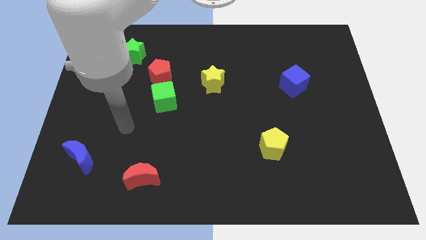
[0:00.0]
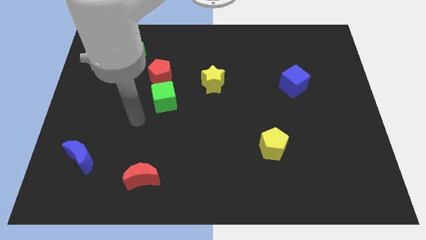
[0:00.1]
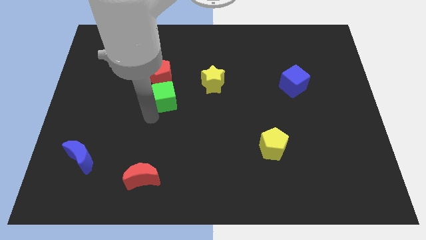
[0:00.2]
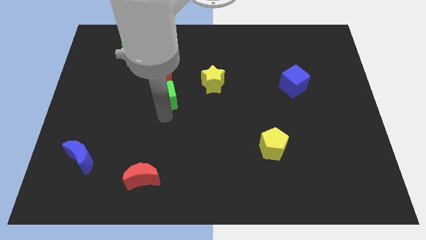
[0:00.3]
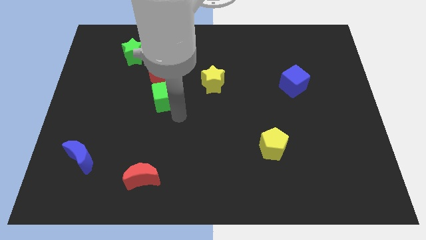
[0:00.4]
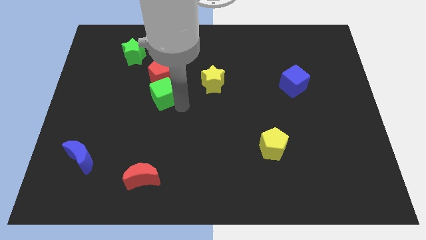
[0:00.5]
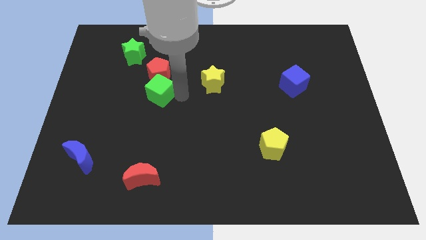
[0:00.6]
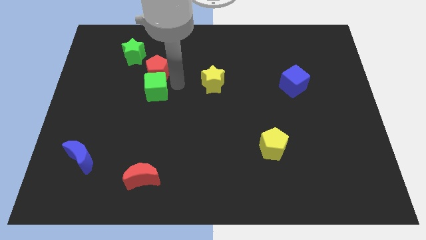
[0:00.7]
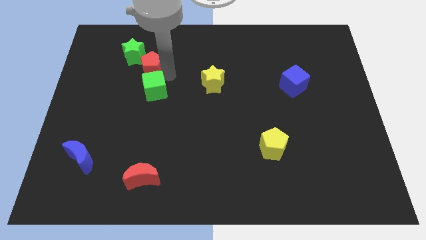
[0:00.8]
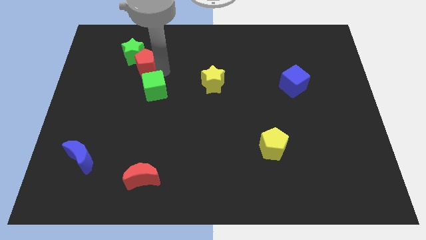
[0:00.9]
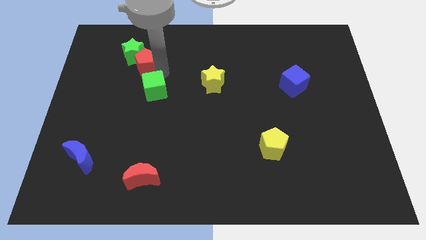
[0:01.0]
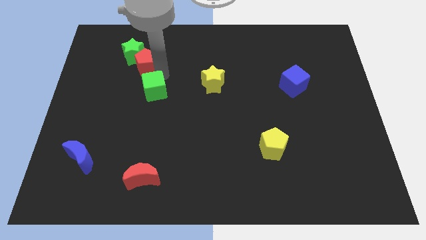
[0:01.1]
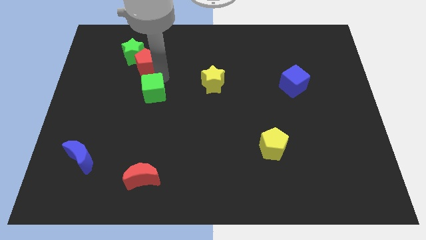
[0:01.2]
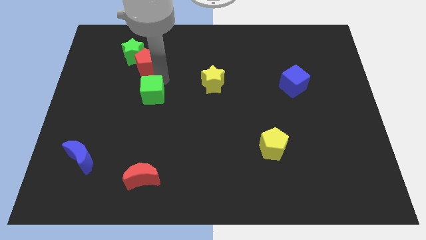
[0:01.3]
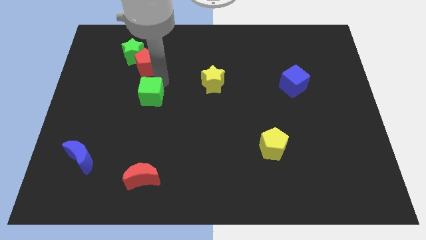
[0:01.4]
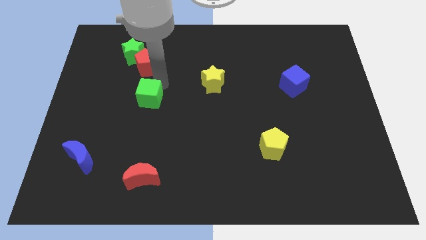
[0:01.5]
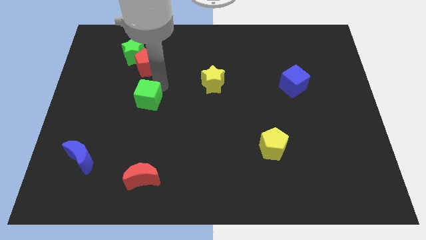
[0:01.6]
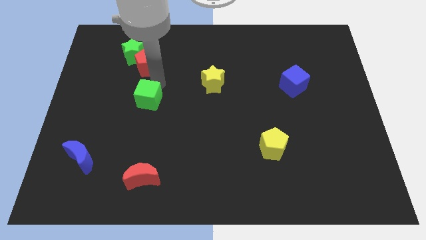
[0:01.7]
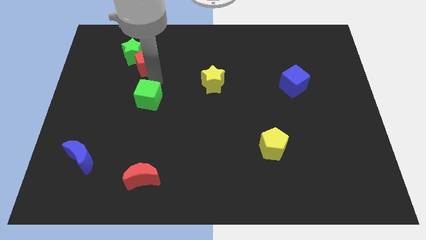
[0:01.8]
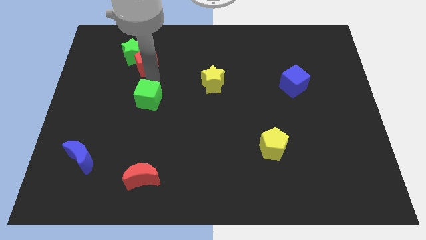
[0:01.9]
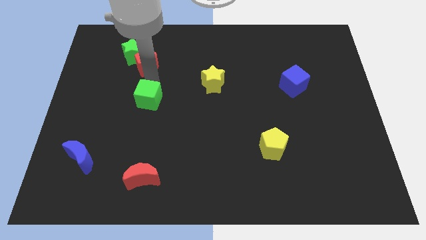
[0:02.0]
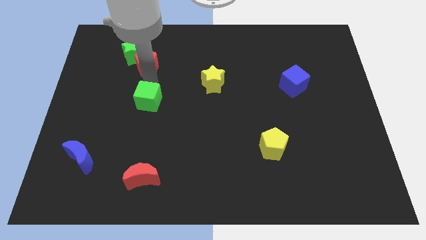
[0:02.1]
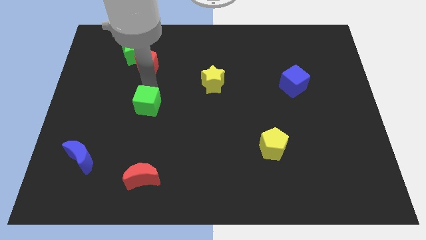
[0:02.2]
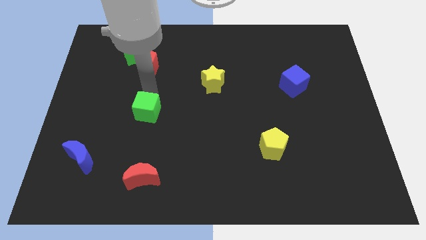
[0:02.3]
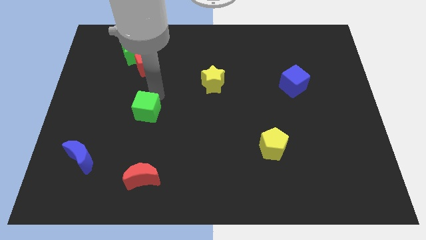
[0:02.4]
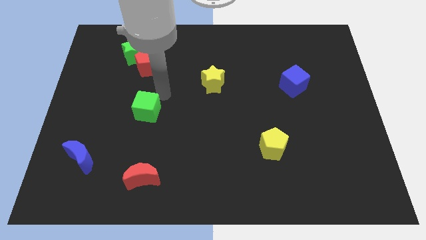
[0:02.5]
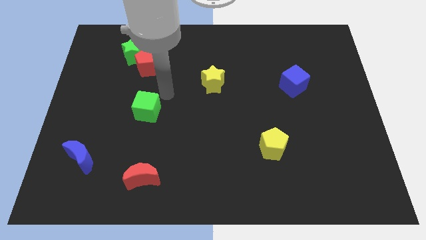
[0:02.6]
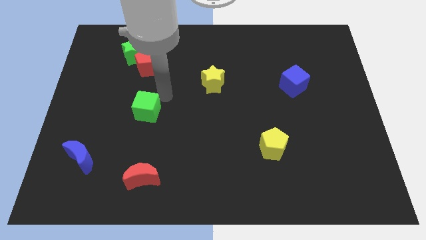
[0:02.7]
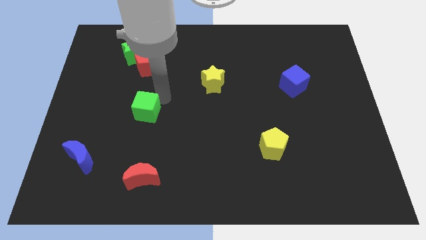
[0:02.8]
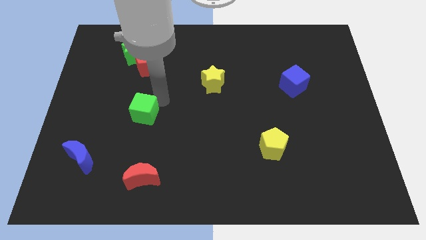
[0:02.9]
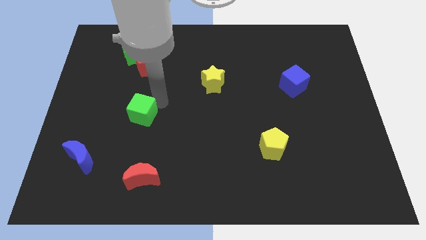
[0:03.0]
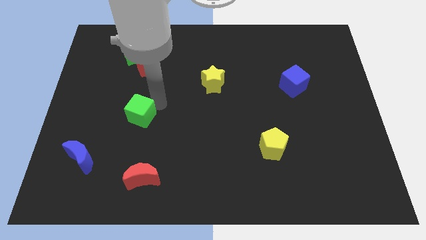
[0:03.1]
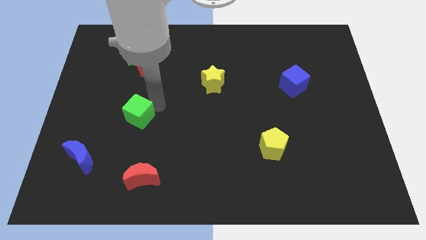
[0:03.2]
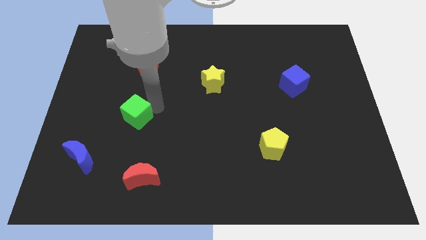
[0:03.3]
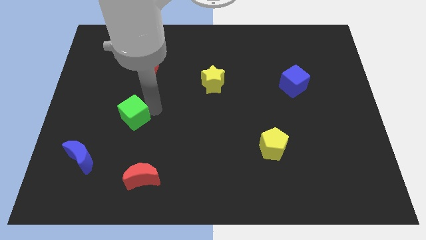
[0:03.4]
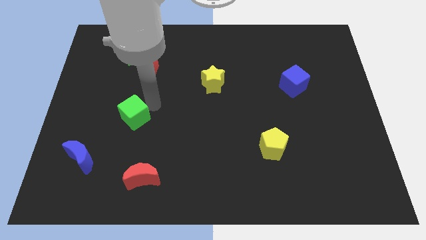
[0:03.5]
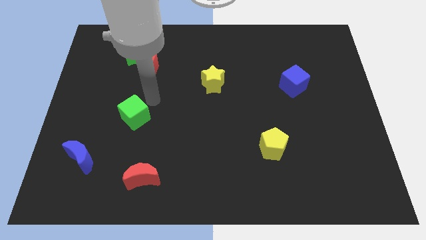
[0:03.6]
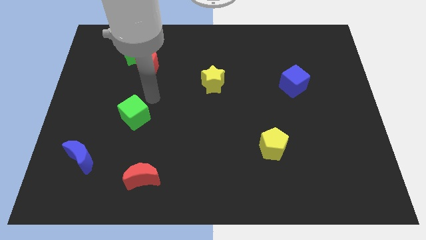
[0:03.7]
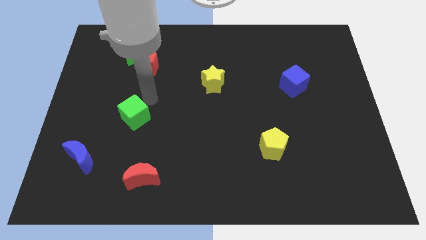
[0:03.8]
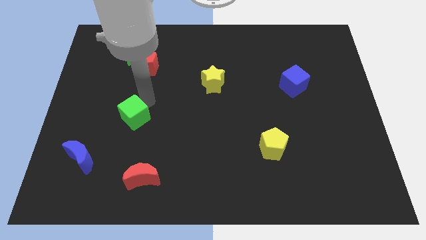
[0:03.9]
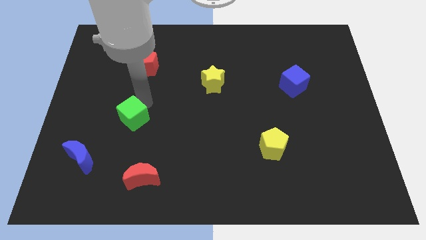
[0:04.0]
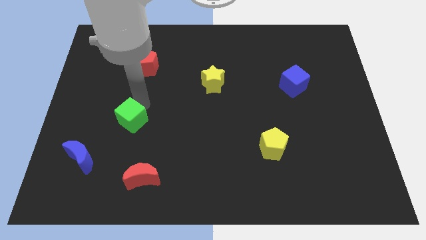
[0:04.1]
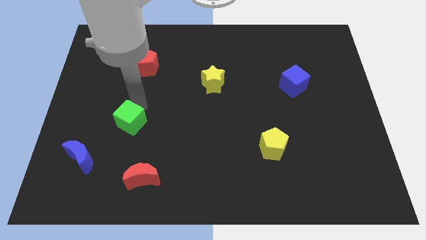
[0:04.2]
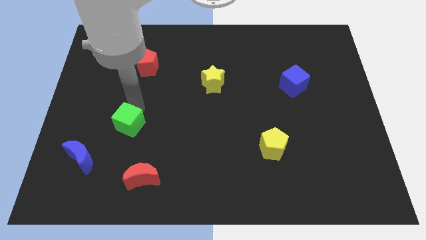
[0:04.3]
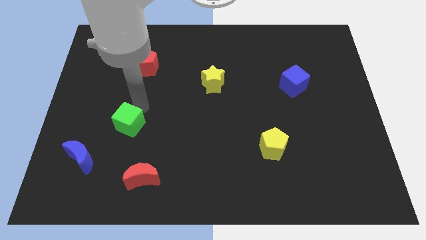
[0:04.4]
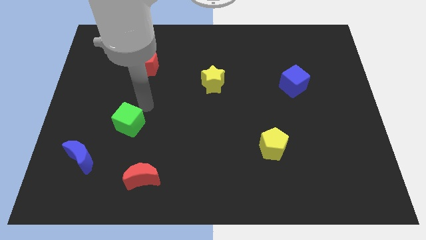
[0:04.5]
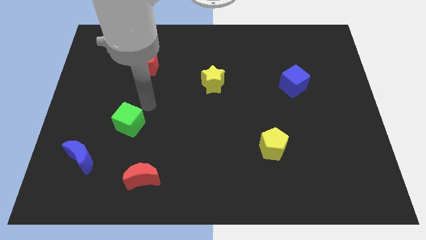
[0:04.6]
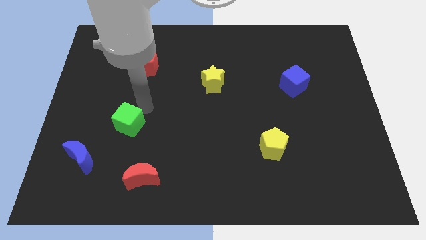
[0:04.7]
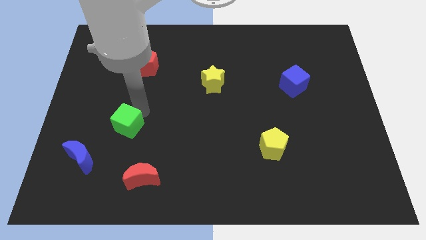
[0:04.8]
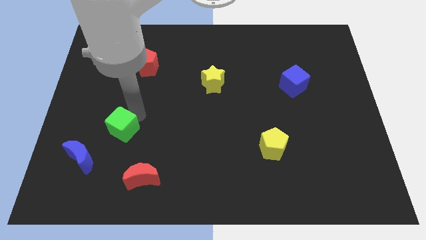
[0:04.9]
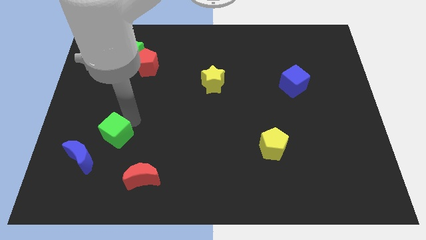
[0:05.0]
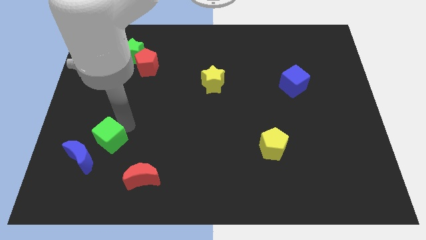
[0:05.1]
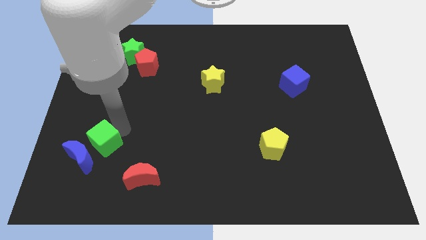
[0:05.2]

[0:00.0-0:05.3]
slide the green cube close to the blue moon

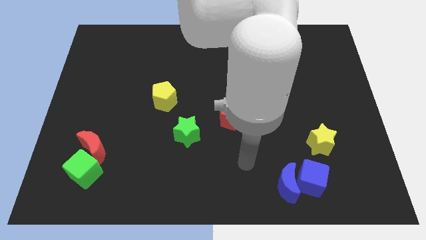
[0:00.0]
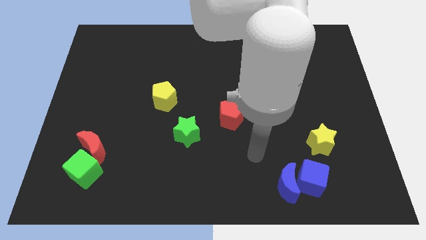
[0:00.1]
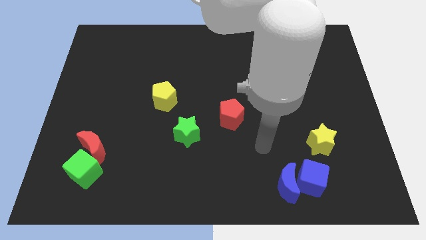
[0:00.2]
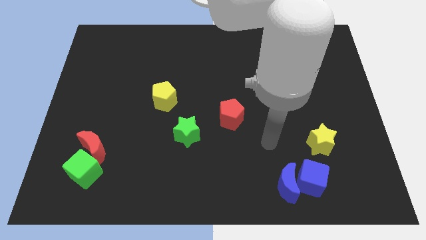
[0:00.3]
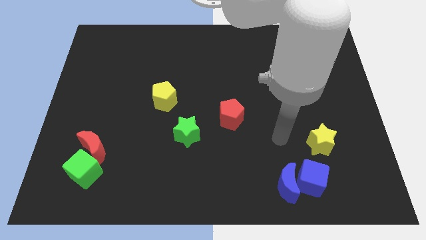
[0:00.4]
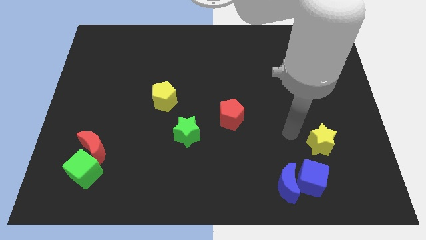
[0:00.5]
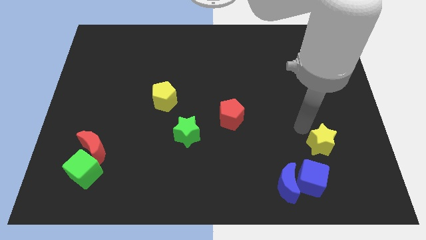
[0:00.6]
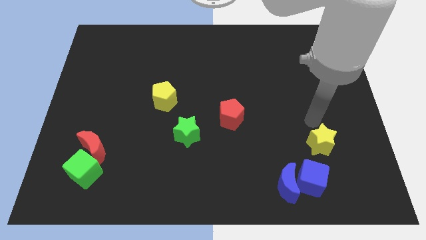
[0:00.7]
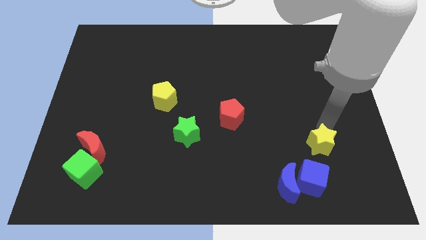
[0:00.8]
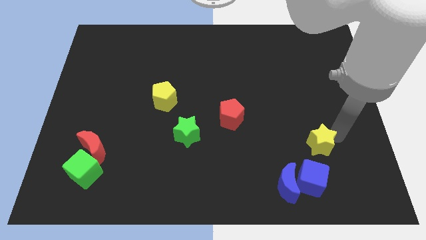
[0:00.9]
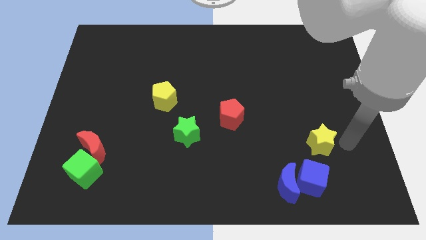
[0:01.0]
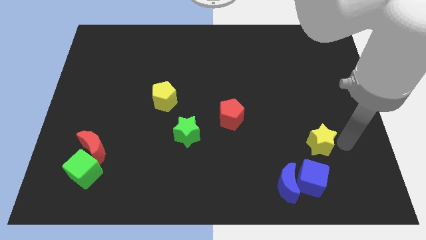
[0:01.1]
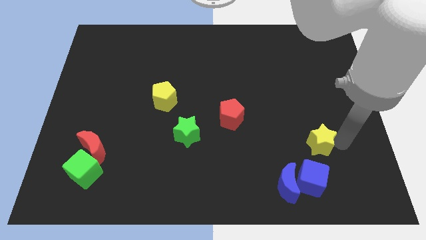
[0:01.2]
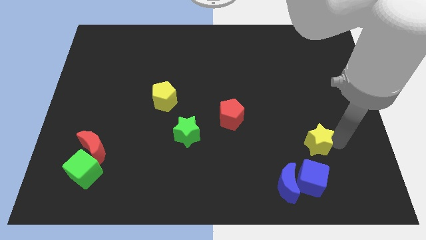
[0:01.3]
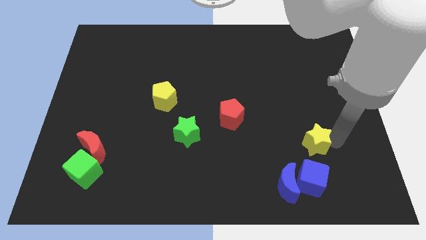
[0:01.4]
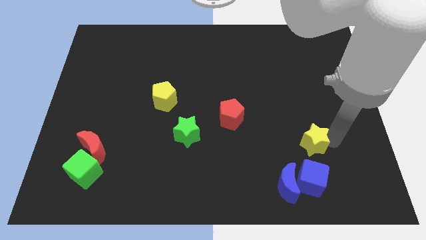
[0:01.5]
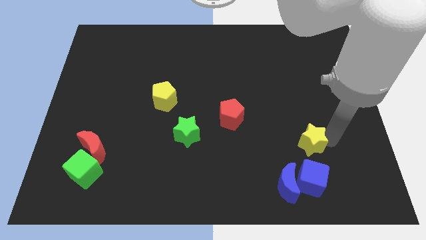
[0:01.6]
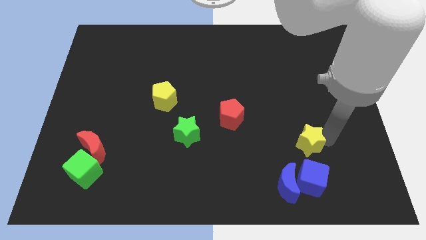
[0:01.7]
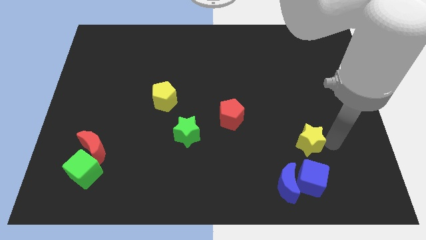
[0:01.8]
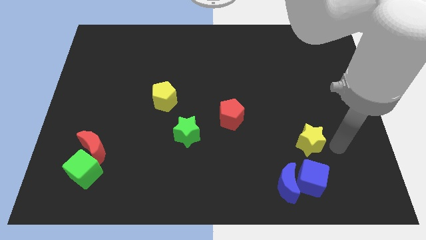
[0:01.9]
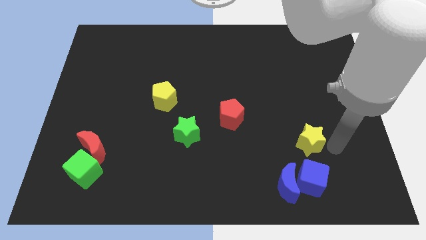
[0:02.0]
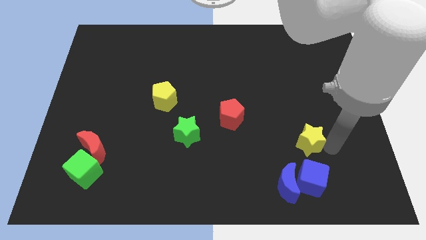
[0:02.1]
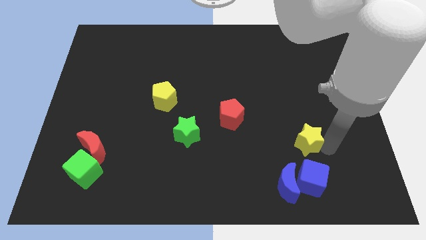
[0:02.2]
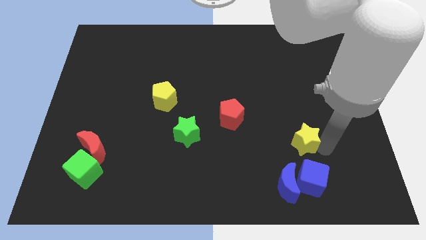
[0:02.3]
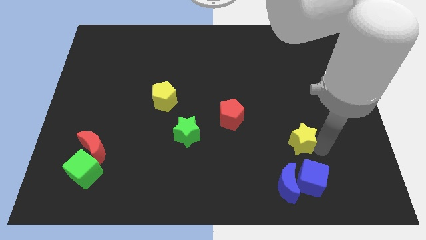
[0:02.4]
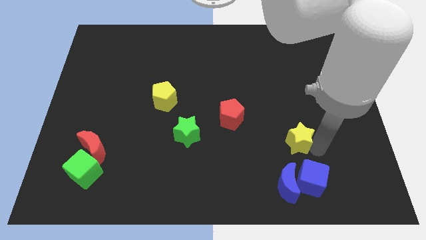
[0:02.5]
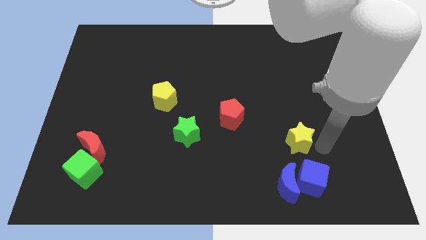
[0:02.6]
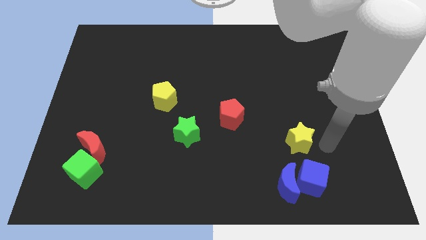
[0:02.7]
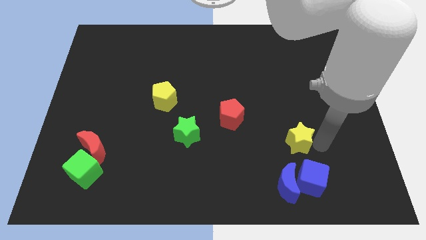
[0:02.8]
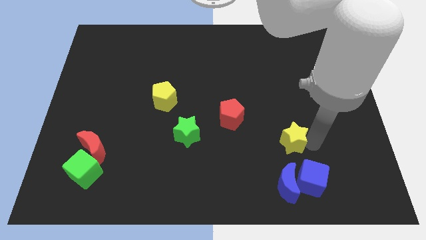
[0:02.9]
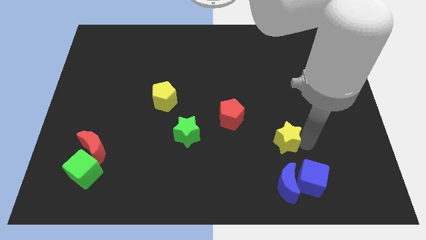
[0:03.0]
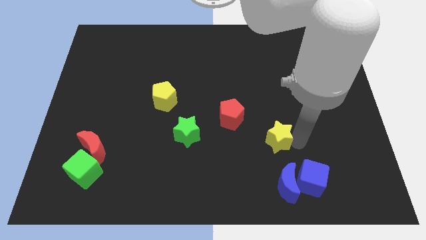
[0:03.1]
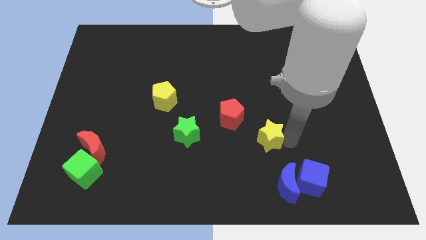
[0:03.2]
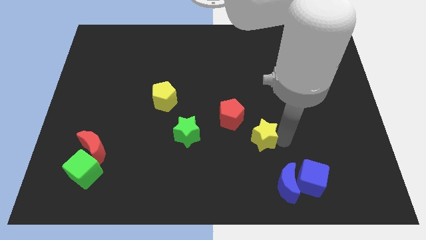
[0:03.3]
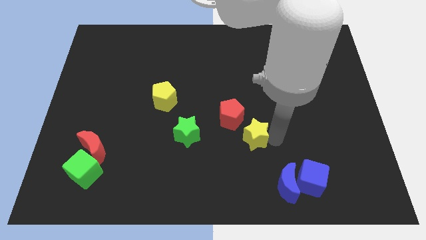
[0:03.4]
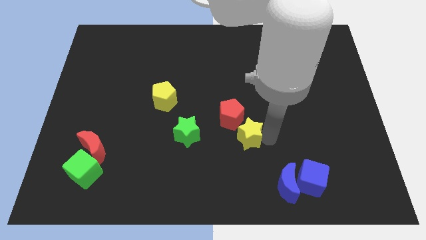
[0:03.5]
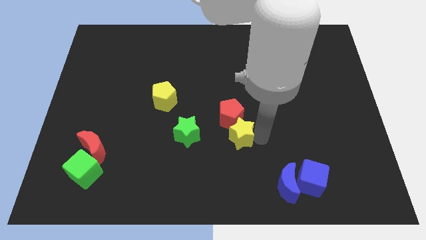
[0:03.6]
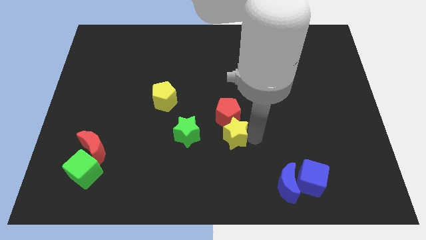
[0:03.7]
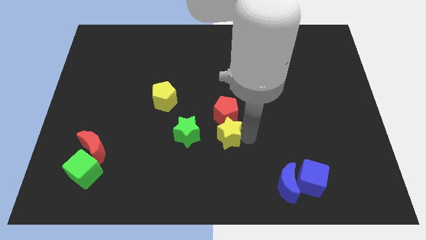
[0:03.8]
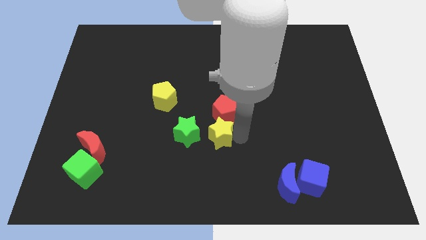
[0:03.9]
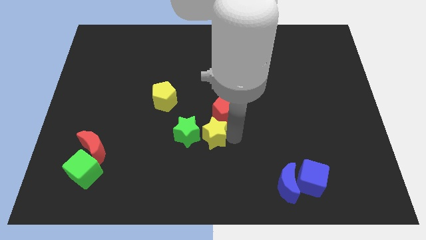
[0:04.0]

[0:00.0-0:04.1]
move the yellow star towards the green star
